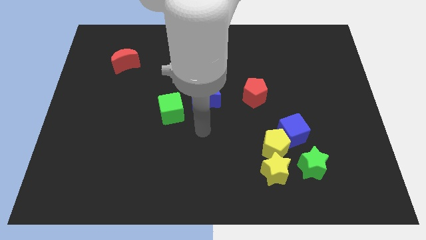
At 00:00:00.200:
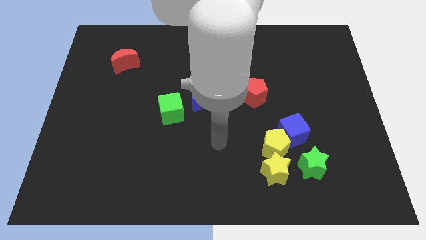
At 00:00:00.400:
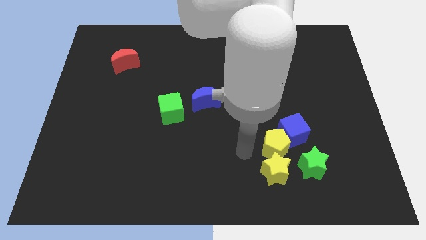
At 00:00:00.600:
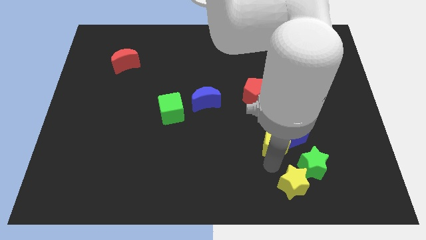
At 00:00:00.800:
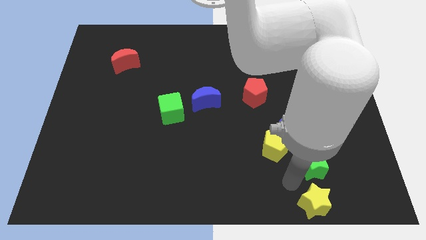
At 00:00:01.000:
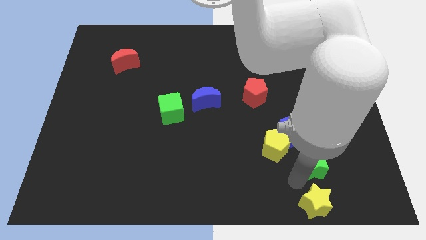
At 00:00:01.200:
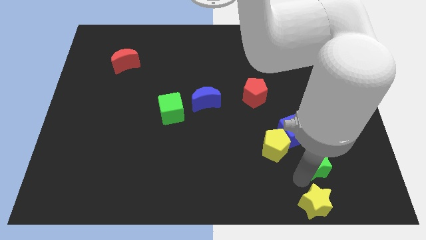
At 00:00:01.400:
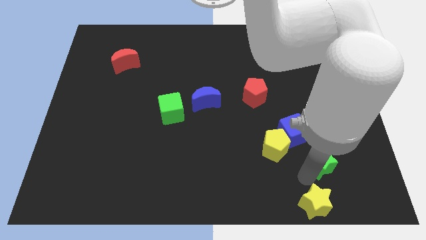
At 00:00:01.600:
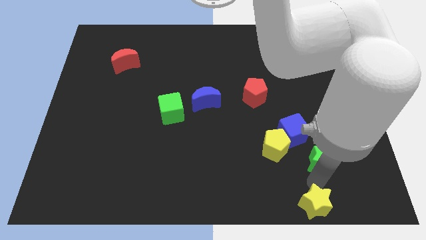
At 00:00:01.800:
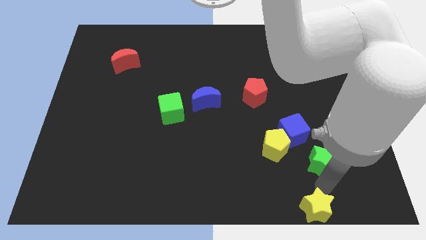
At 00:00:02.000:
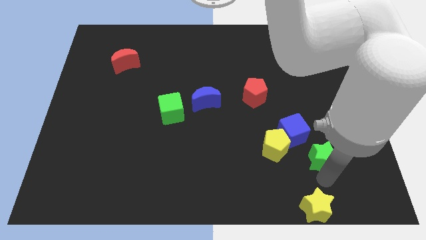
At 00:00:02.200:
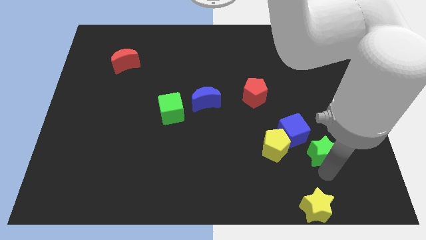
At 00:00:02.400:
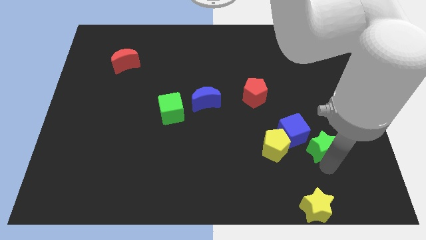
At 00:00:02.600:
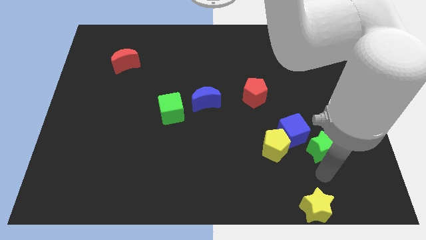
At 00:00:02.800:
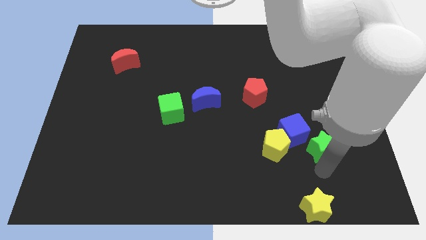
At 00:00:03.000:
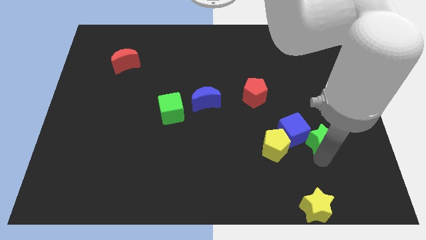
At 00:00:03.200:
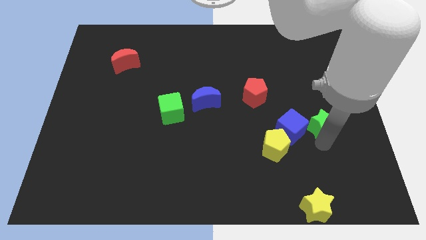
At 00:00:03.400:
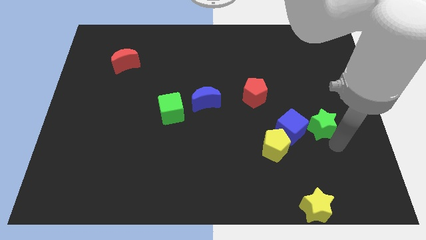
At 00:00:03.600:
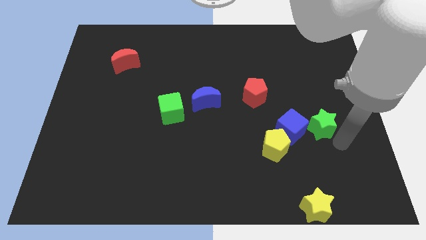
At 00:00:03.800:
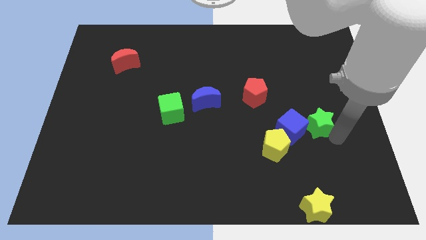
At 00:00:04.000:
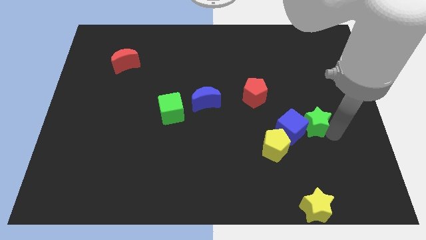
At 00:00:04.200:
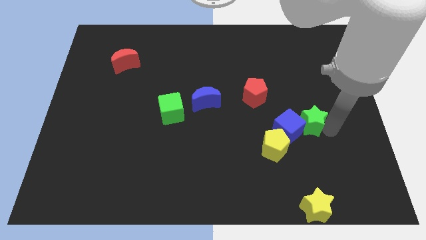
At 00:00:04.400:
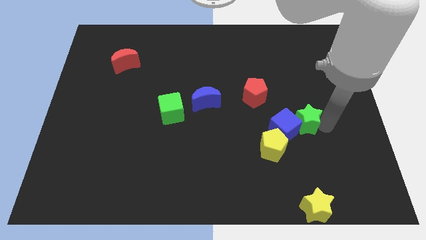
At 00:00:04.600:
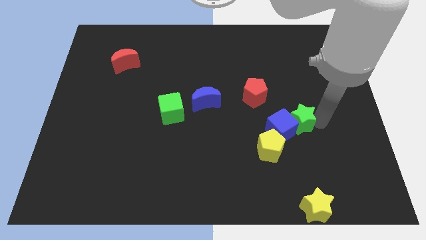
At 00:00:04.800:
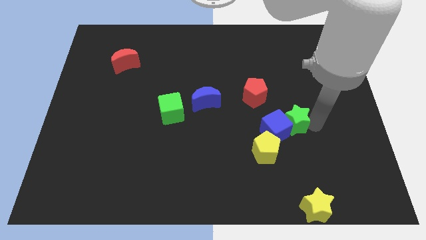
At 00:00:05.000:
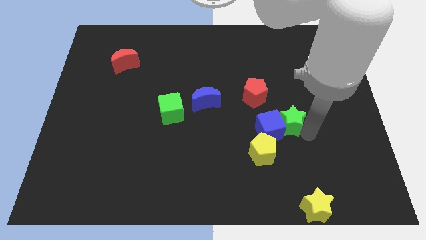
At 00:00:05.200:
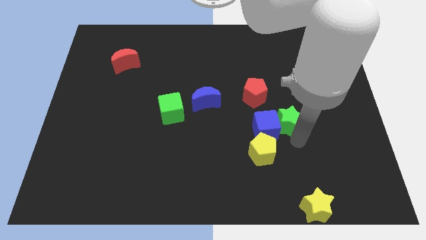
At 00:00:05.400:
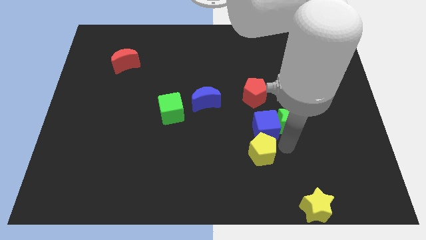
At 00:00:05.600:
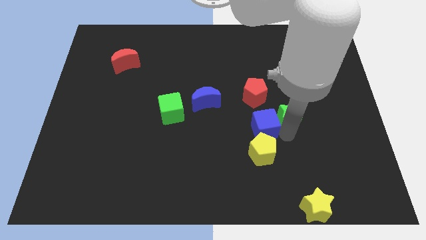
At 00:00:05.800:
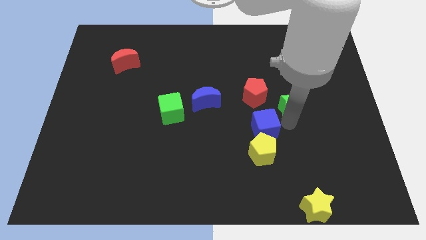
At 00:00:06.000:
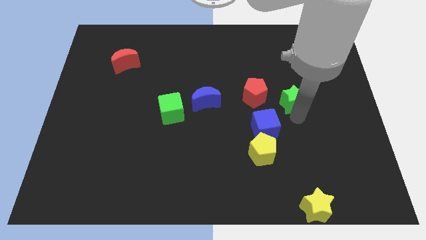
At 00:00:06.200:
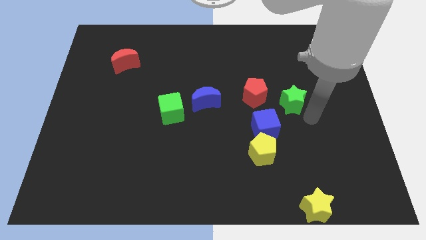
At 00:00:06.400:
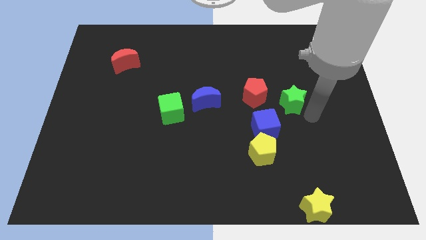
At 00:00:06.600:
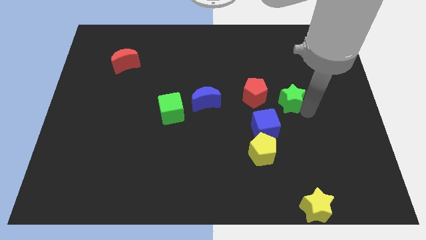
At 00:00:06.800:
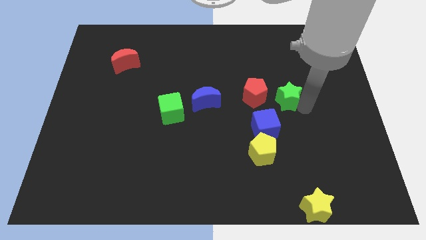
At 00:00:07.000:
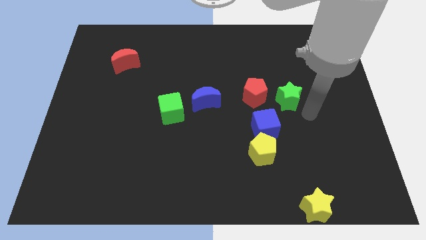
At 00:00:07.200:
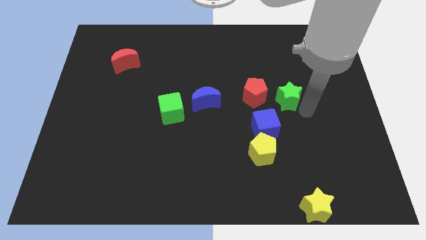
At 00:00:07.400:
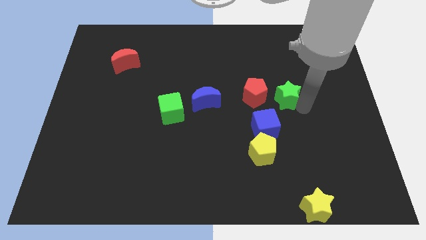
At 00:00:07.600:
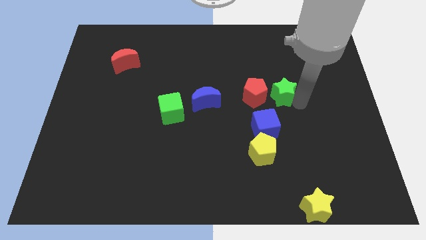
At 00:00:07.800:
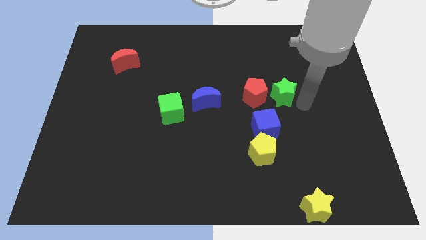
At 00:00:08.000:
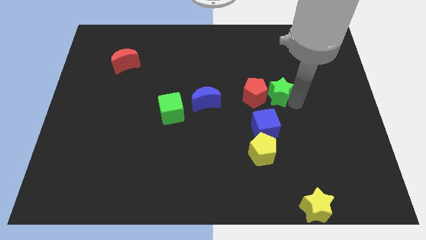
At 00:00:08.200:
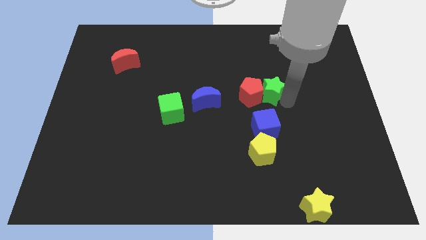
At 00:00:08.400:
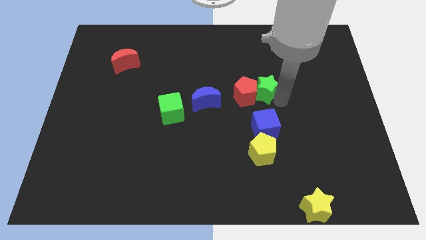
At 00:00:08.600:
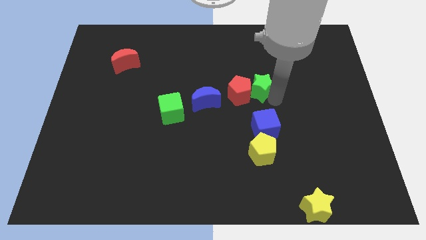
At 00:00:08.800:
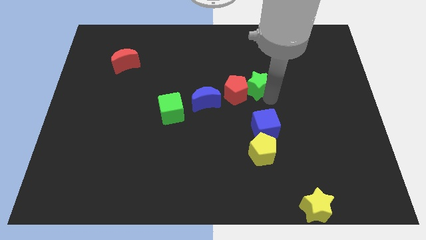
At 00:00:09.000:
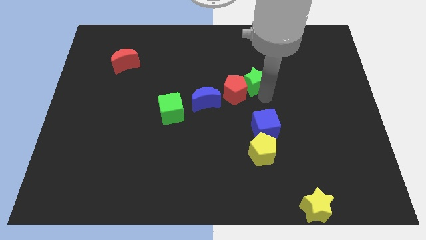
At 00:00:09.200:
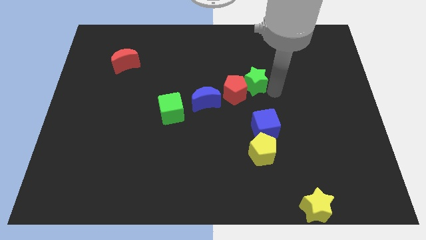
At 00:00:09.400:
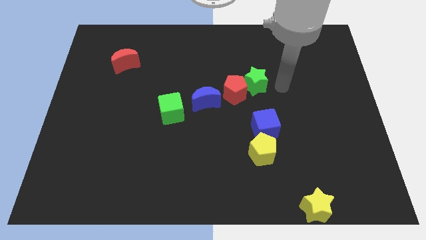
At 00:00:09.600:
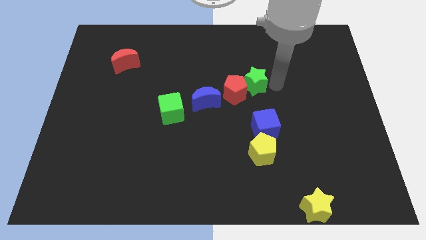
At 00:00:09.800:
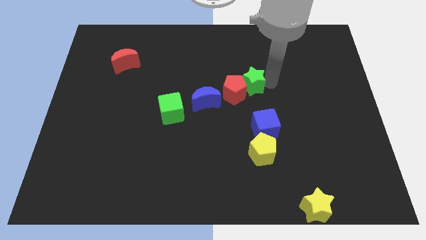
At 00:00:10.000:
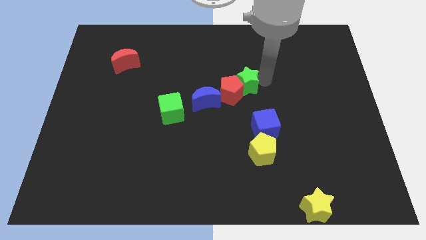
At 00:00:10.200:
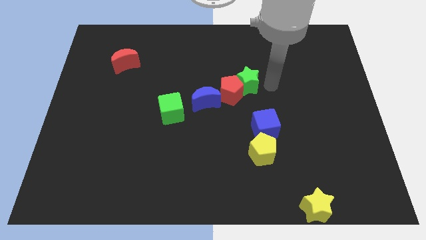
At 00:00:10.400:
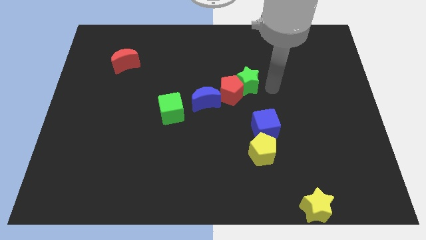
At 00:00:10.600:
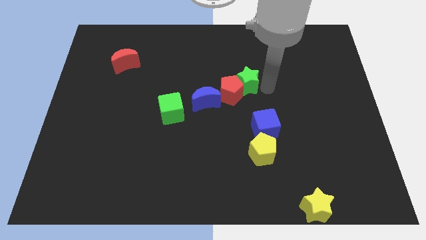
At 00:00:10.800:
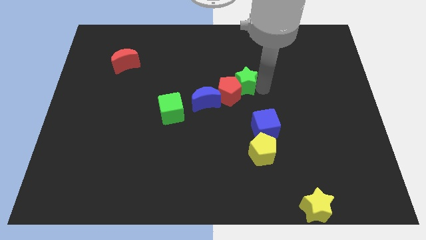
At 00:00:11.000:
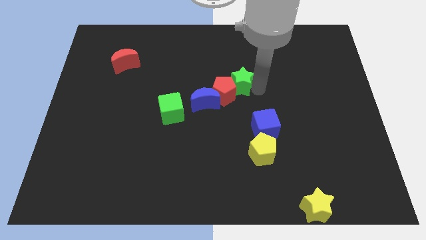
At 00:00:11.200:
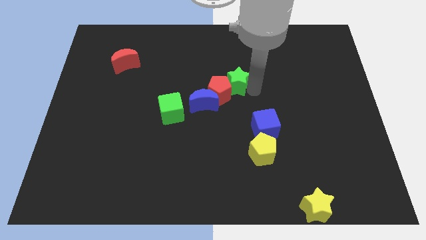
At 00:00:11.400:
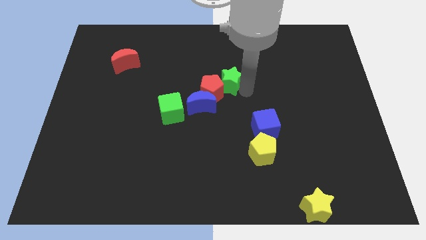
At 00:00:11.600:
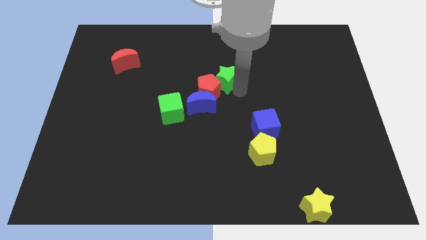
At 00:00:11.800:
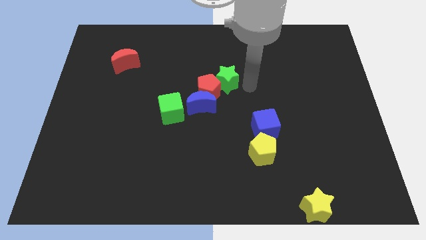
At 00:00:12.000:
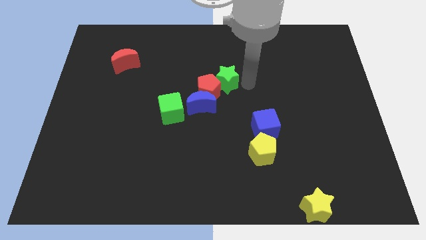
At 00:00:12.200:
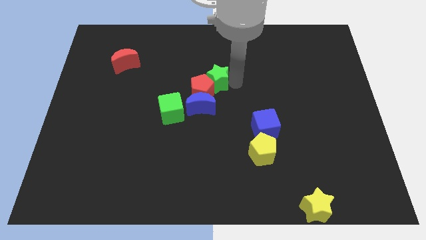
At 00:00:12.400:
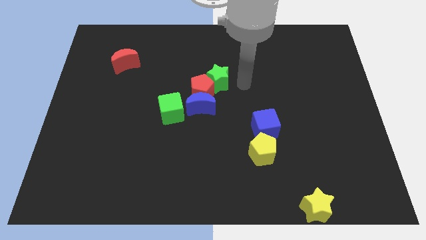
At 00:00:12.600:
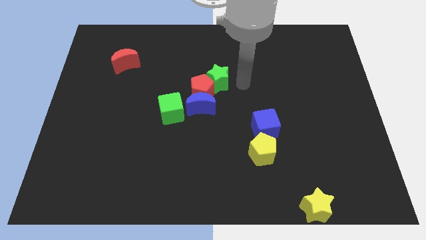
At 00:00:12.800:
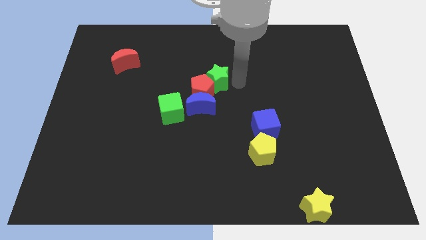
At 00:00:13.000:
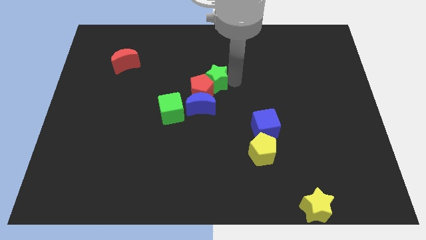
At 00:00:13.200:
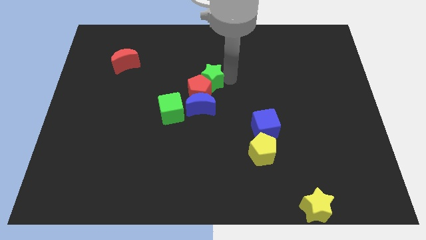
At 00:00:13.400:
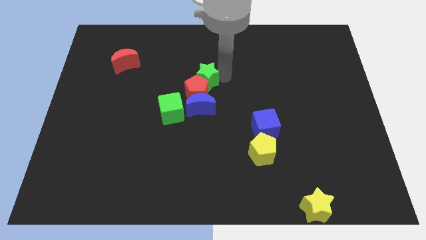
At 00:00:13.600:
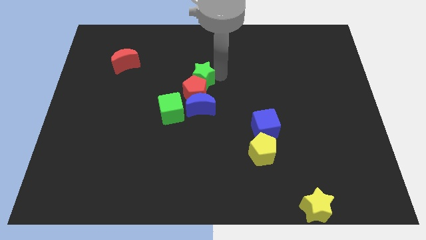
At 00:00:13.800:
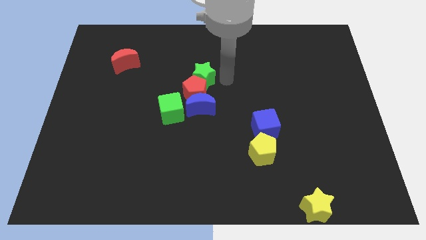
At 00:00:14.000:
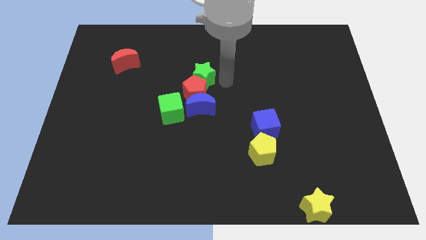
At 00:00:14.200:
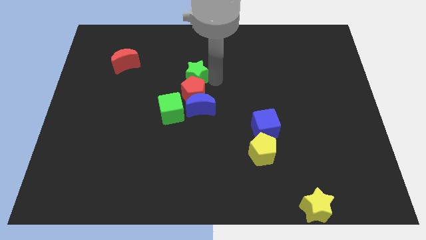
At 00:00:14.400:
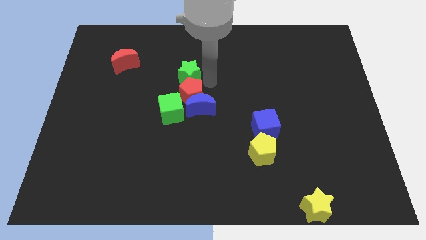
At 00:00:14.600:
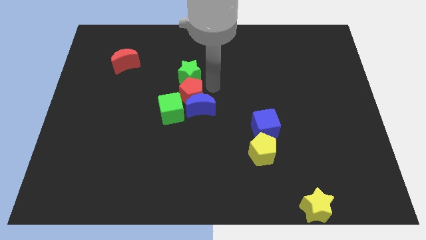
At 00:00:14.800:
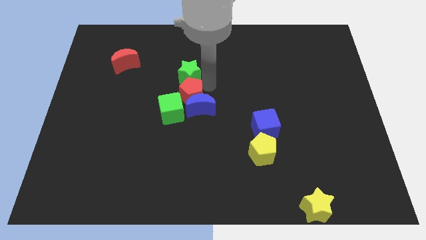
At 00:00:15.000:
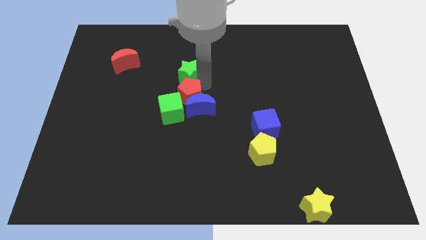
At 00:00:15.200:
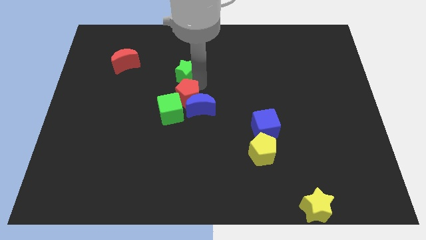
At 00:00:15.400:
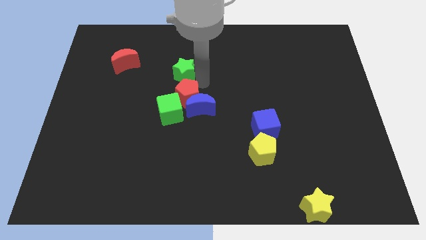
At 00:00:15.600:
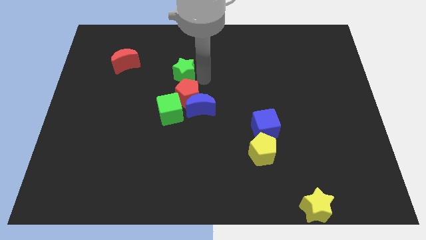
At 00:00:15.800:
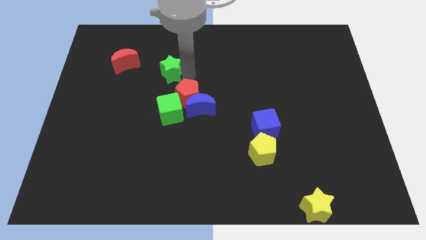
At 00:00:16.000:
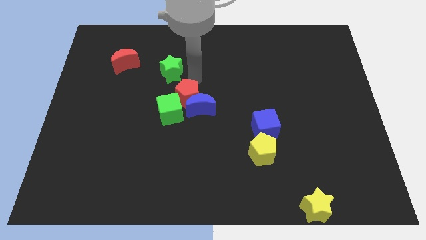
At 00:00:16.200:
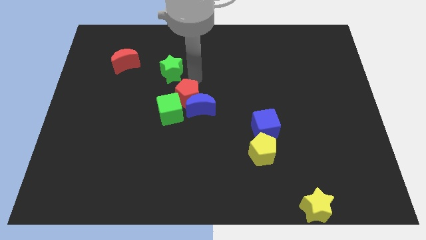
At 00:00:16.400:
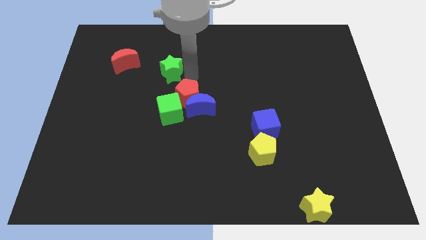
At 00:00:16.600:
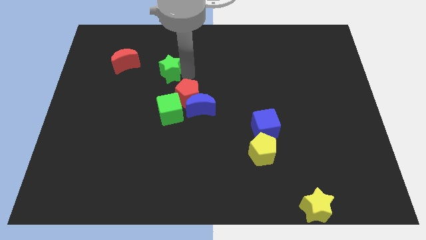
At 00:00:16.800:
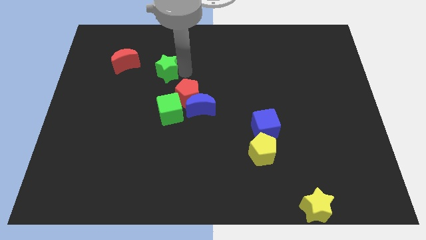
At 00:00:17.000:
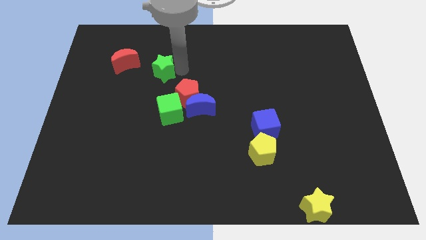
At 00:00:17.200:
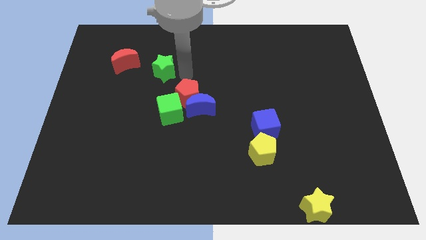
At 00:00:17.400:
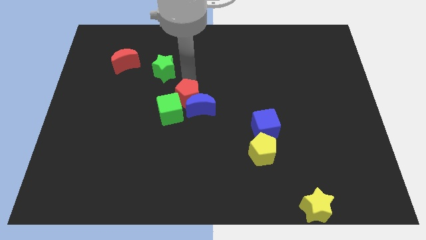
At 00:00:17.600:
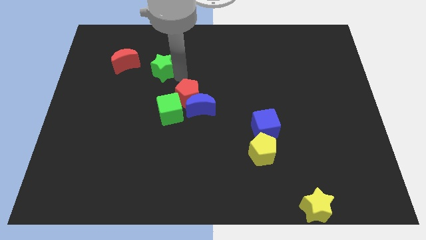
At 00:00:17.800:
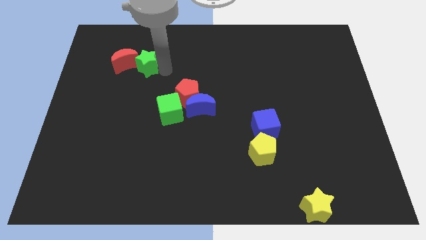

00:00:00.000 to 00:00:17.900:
push the green star next to the red moon
